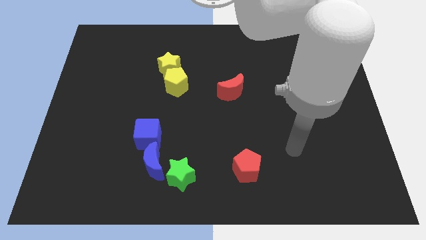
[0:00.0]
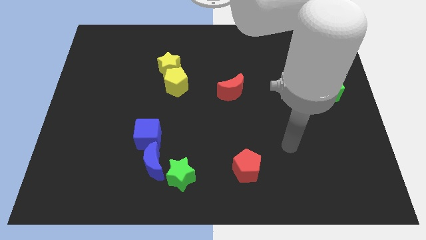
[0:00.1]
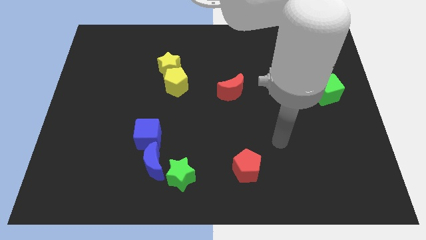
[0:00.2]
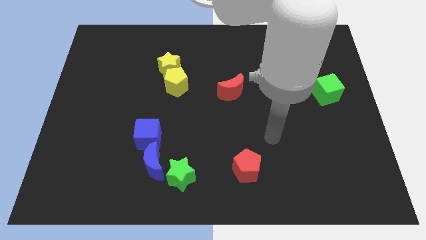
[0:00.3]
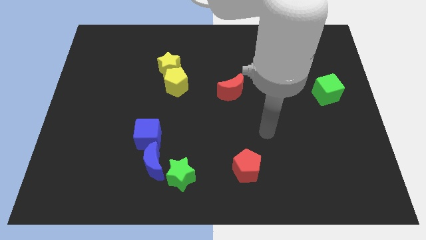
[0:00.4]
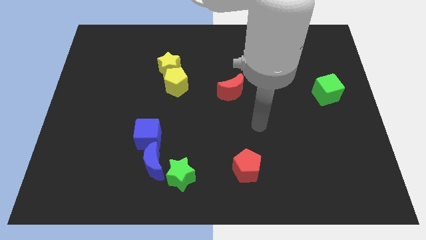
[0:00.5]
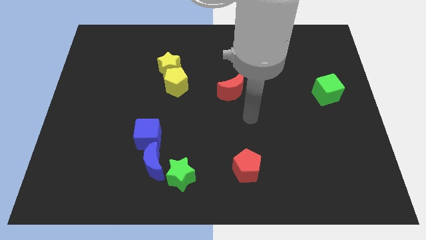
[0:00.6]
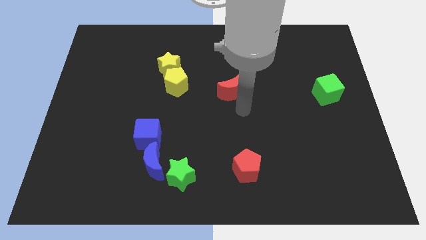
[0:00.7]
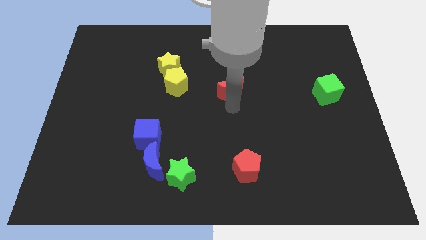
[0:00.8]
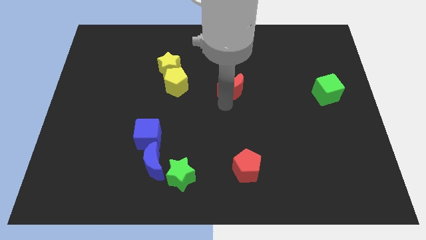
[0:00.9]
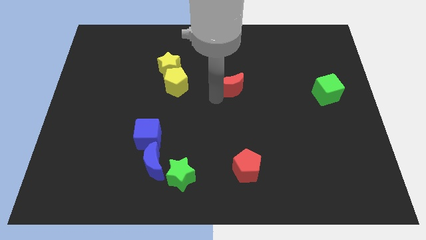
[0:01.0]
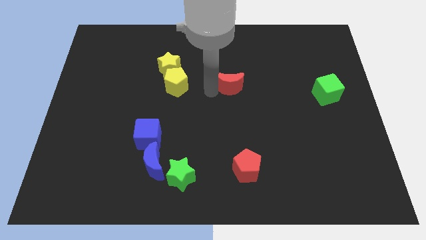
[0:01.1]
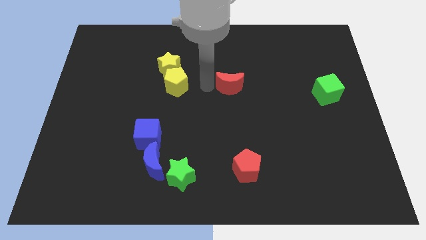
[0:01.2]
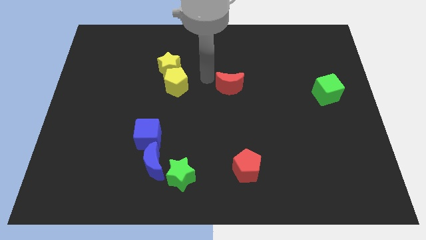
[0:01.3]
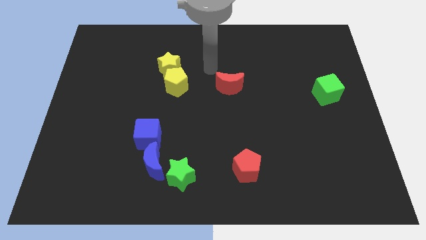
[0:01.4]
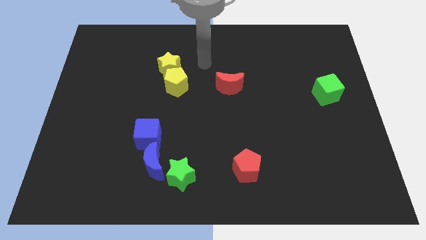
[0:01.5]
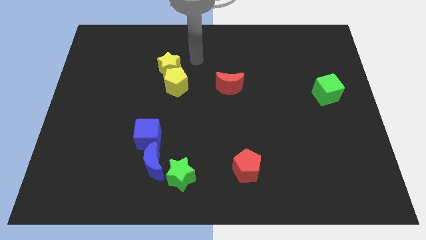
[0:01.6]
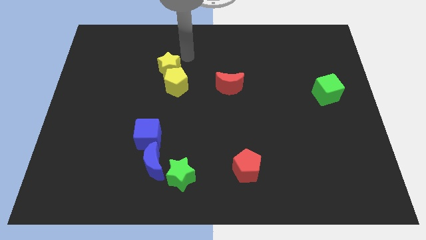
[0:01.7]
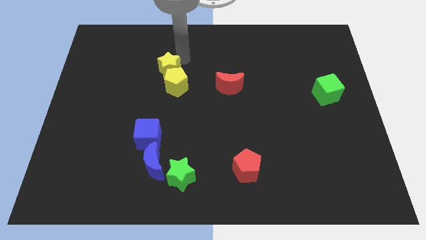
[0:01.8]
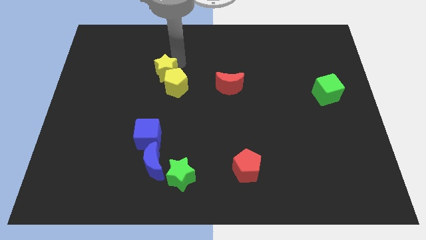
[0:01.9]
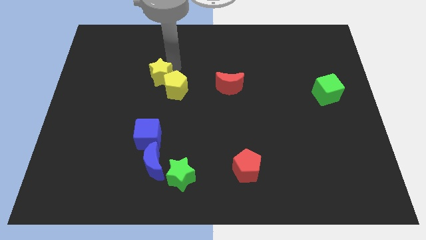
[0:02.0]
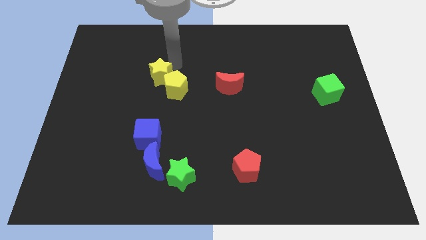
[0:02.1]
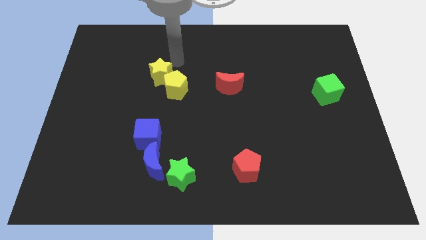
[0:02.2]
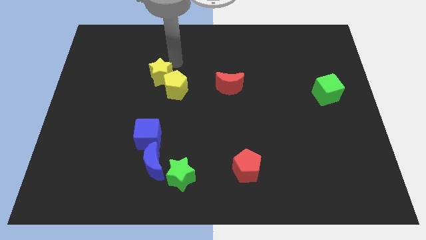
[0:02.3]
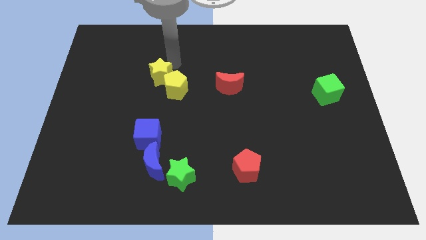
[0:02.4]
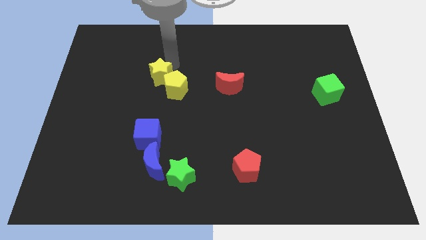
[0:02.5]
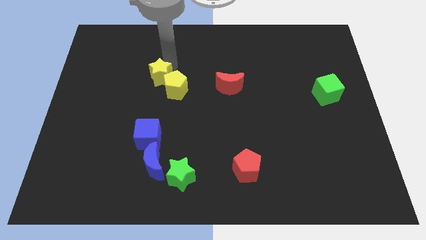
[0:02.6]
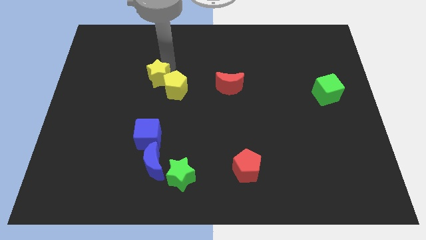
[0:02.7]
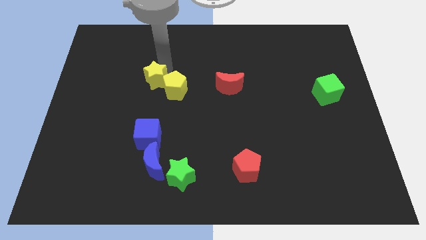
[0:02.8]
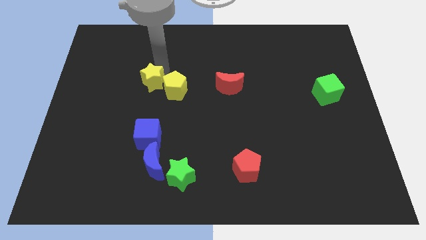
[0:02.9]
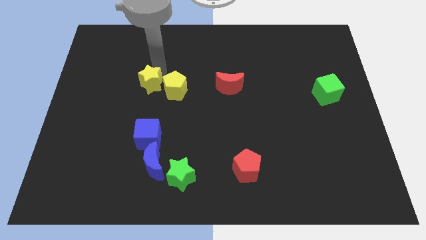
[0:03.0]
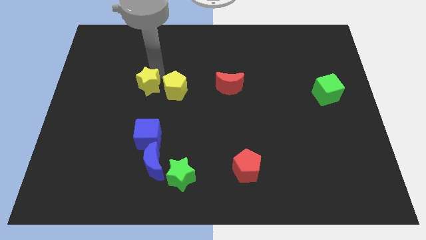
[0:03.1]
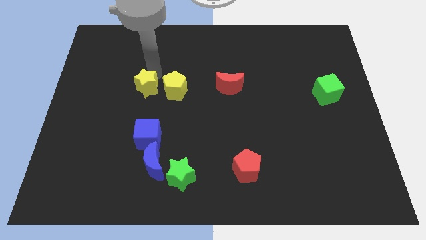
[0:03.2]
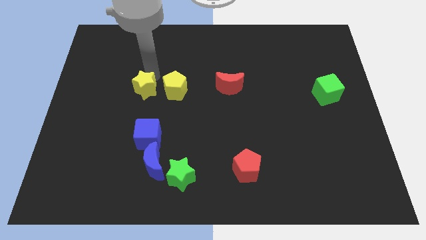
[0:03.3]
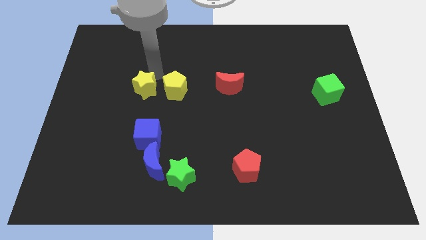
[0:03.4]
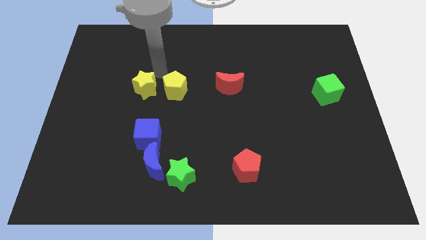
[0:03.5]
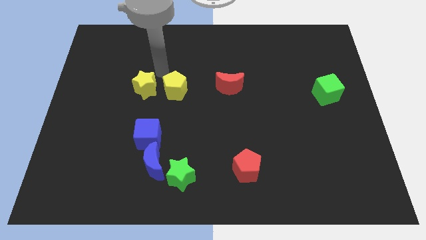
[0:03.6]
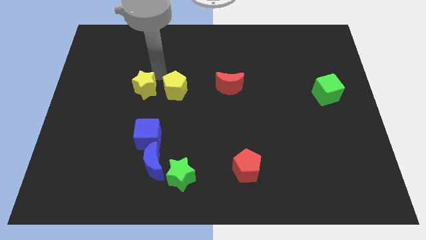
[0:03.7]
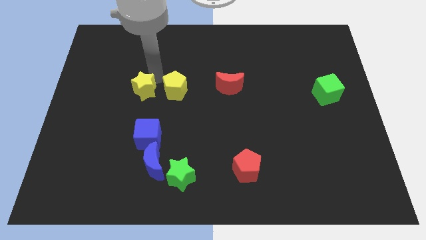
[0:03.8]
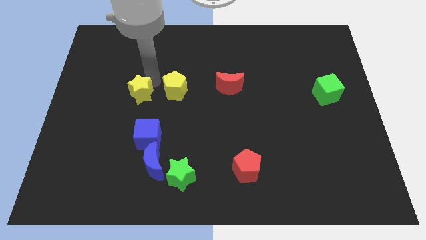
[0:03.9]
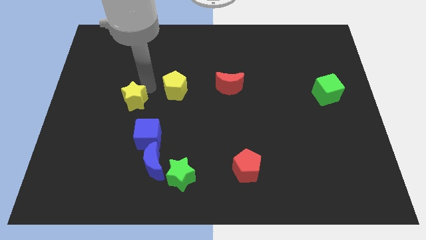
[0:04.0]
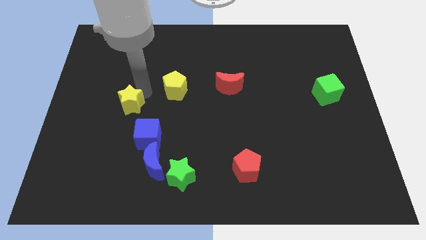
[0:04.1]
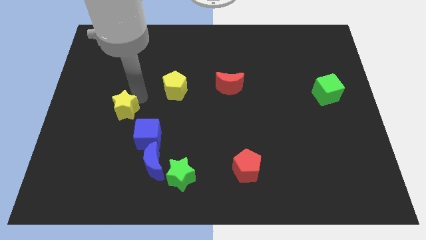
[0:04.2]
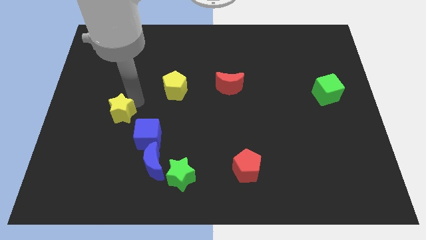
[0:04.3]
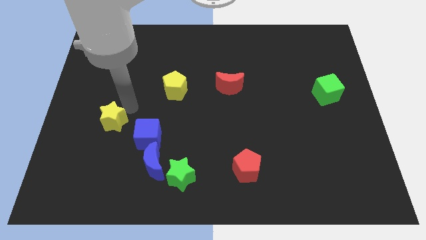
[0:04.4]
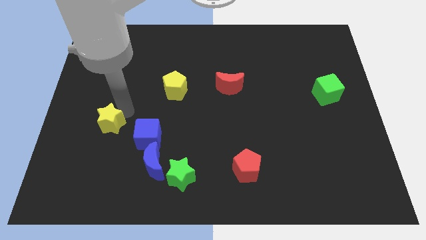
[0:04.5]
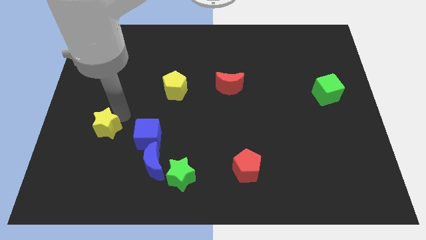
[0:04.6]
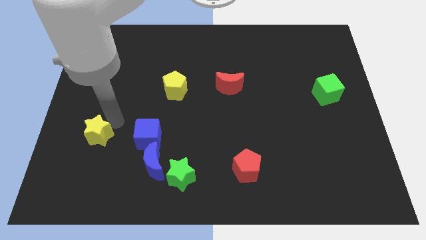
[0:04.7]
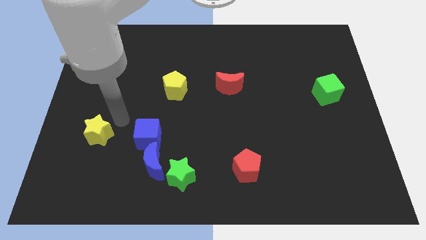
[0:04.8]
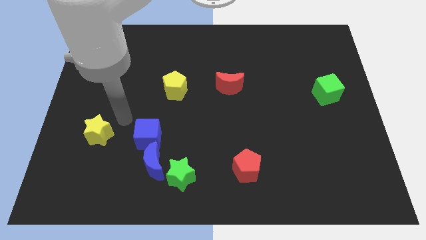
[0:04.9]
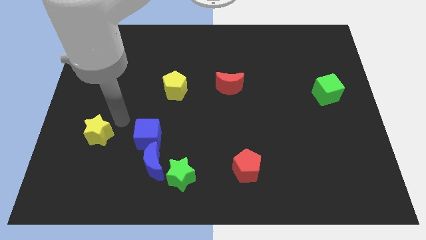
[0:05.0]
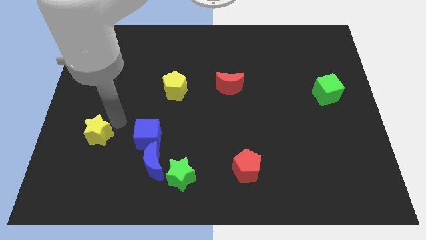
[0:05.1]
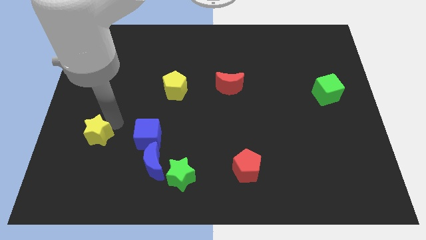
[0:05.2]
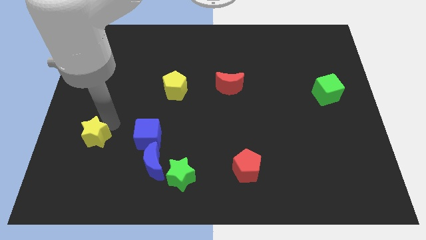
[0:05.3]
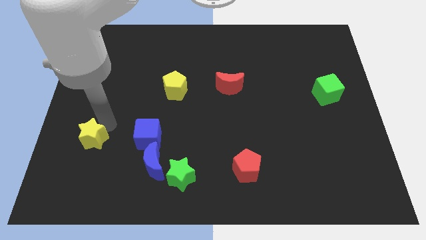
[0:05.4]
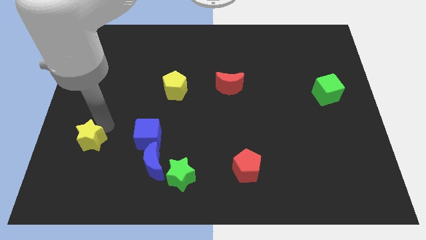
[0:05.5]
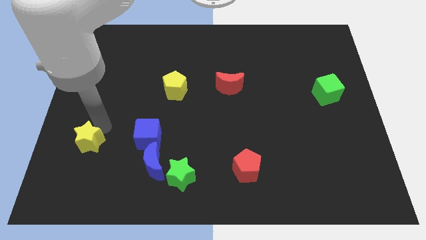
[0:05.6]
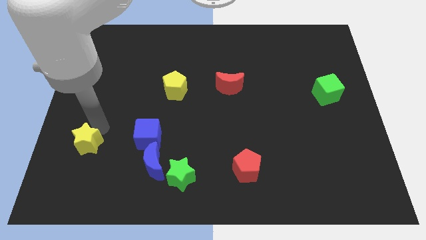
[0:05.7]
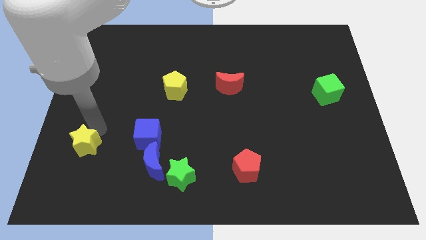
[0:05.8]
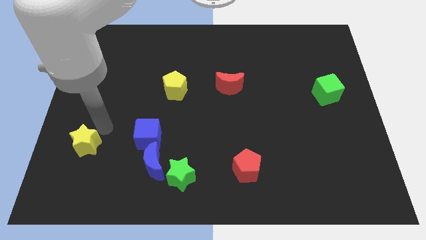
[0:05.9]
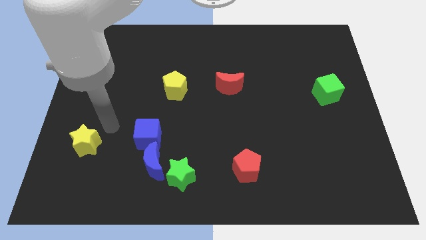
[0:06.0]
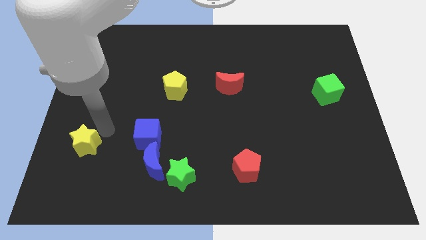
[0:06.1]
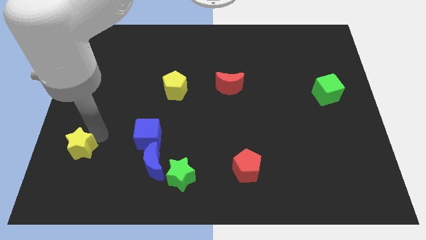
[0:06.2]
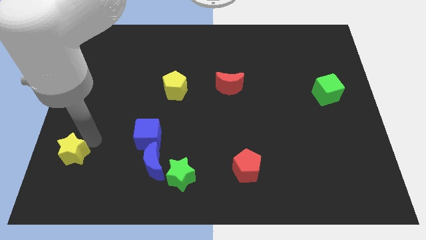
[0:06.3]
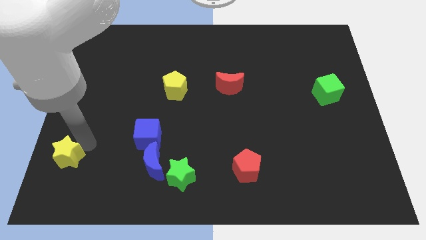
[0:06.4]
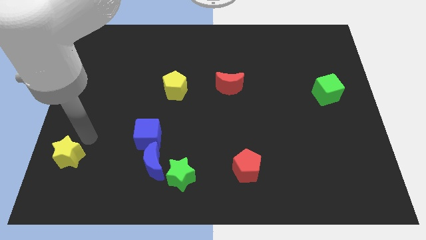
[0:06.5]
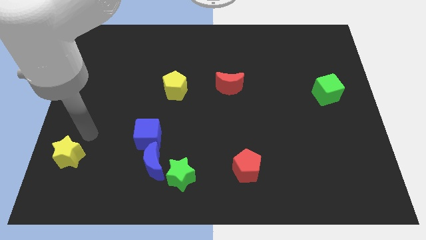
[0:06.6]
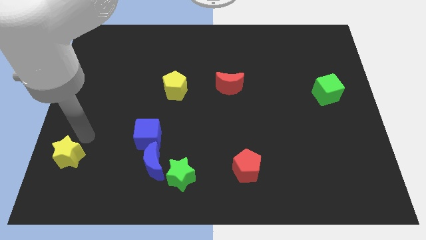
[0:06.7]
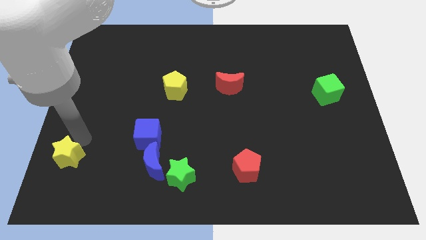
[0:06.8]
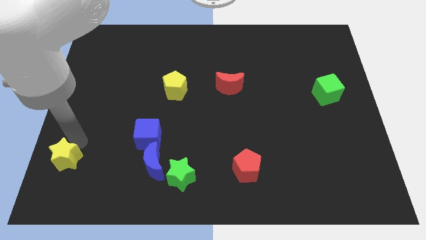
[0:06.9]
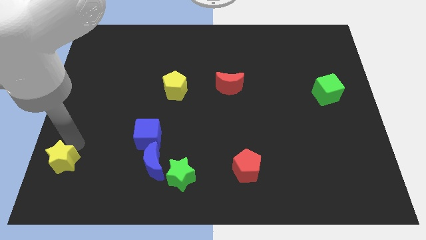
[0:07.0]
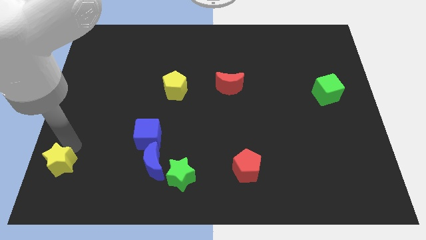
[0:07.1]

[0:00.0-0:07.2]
put the yellow star to the bottom left
